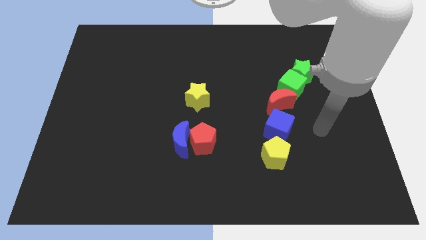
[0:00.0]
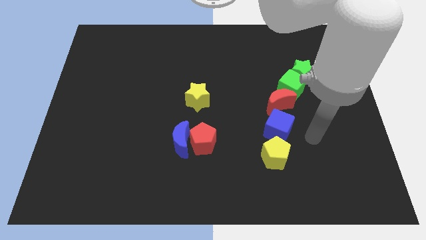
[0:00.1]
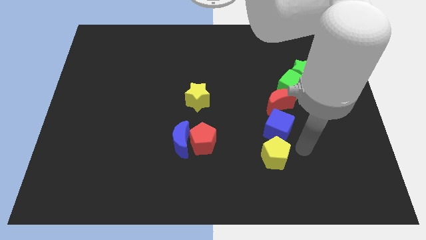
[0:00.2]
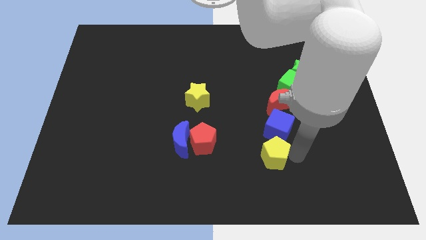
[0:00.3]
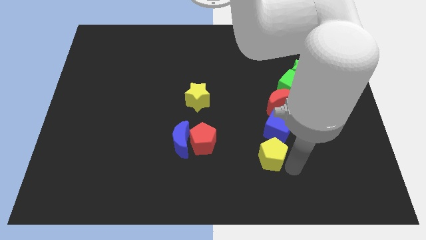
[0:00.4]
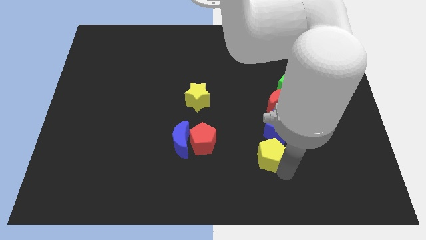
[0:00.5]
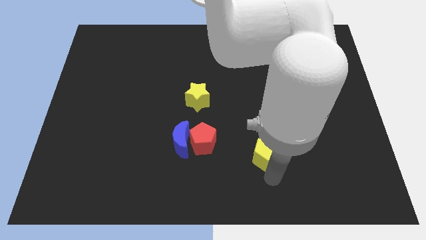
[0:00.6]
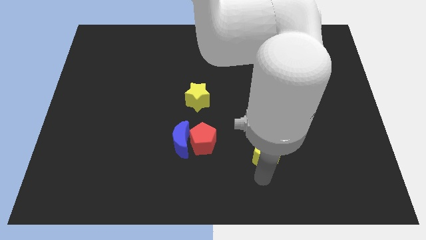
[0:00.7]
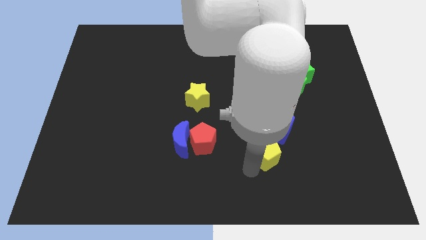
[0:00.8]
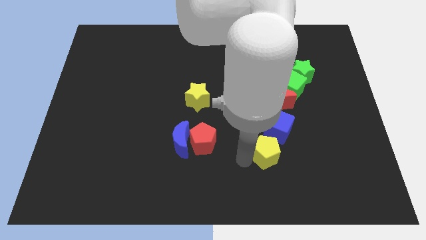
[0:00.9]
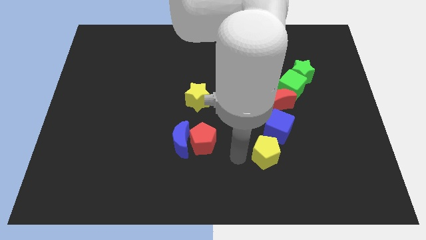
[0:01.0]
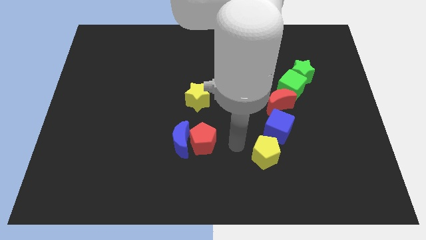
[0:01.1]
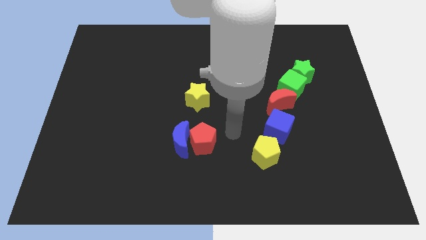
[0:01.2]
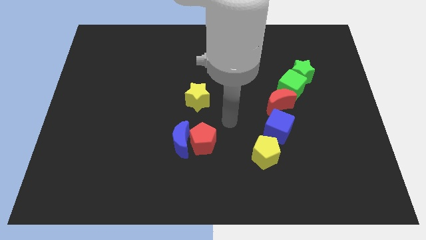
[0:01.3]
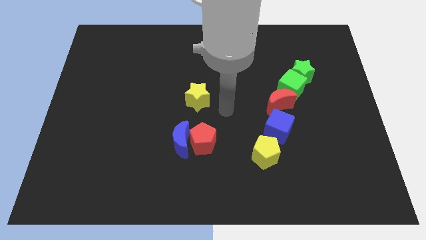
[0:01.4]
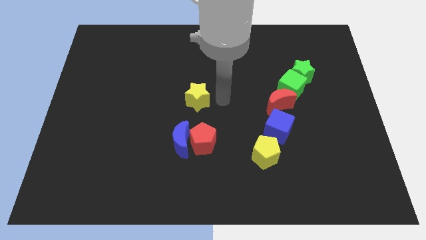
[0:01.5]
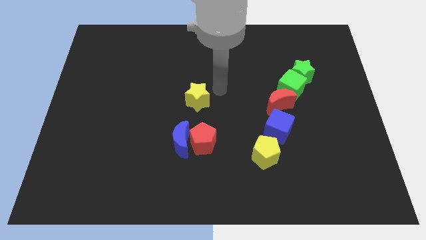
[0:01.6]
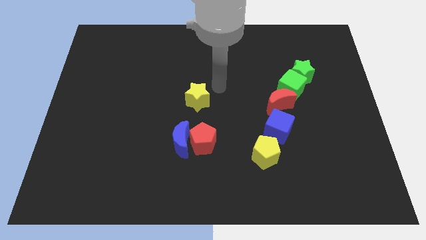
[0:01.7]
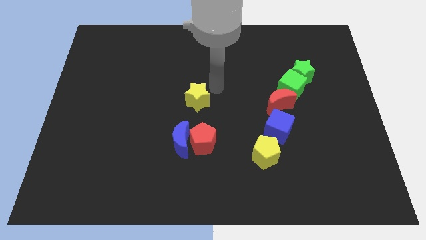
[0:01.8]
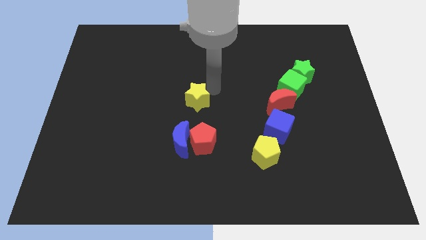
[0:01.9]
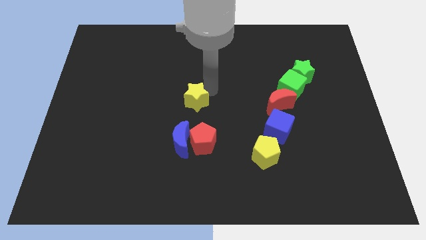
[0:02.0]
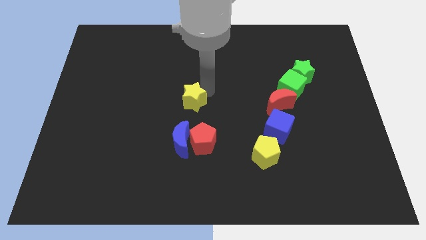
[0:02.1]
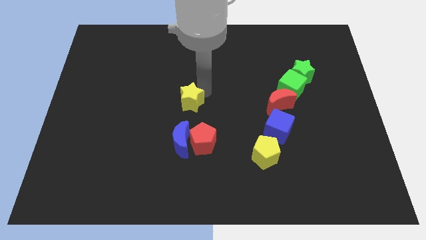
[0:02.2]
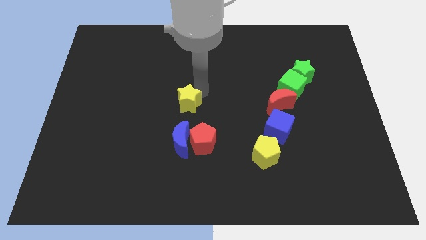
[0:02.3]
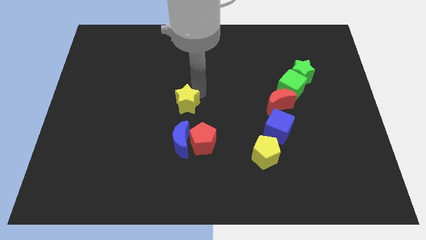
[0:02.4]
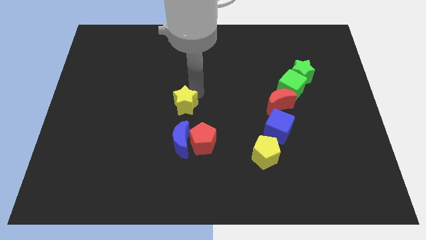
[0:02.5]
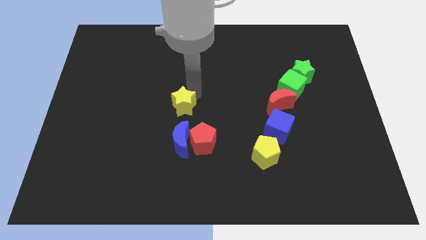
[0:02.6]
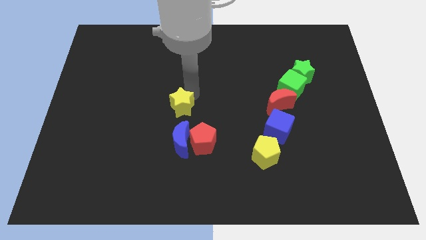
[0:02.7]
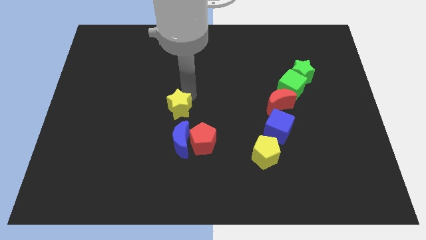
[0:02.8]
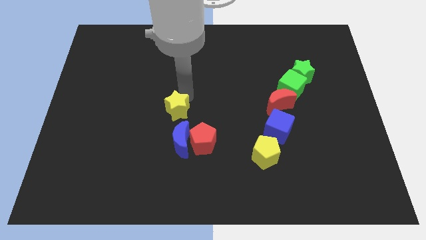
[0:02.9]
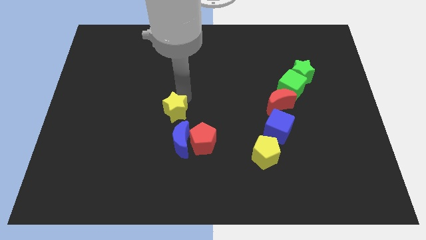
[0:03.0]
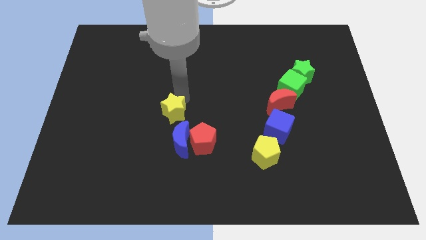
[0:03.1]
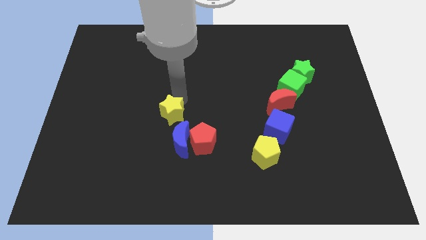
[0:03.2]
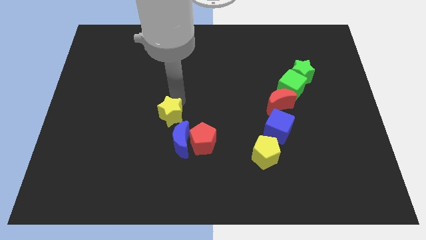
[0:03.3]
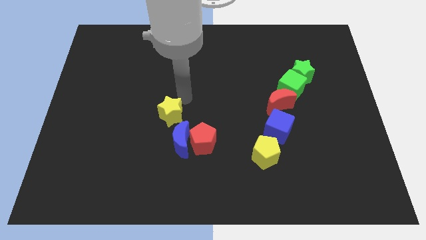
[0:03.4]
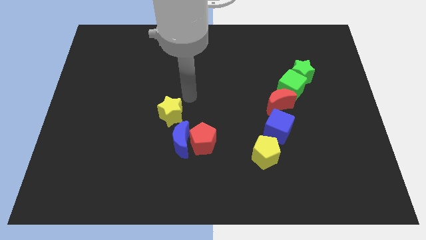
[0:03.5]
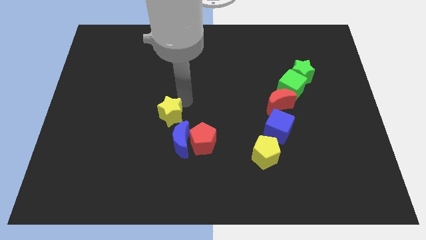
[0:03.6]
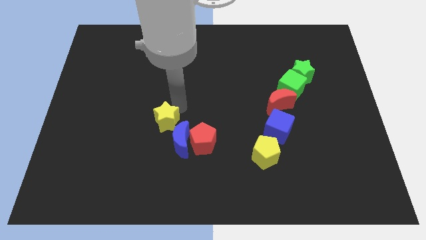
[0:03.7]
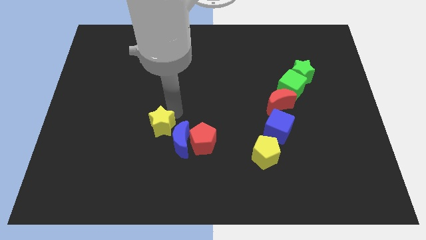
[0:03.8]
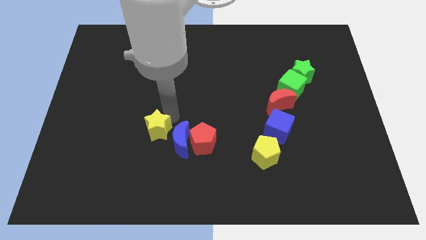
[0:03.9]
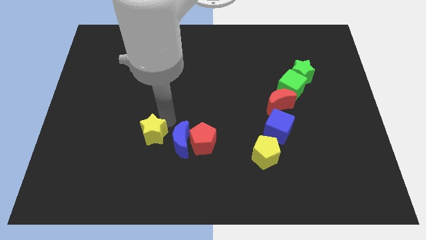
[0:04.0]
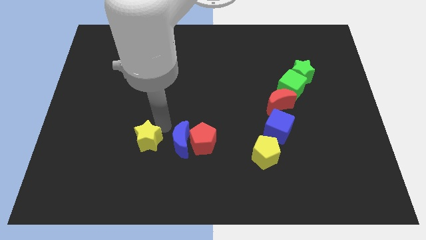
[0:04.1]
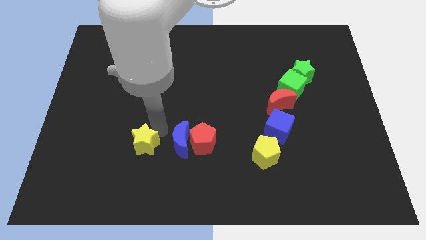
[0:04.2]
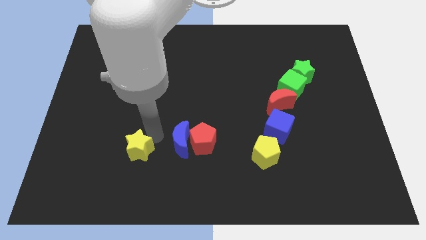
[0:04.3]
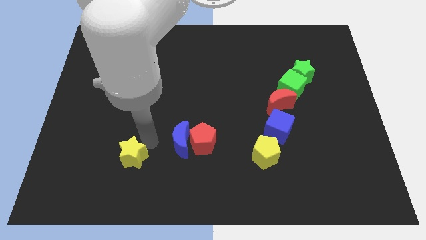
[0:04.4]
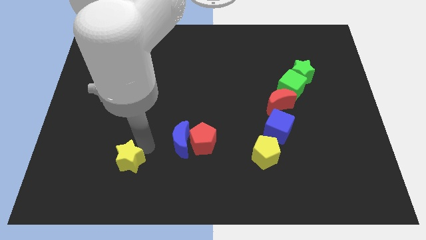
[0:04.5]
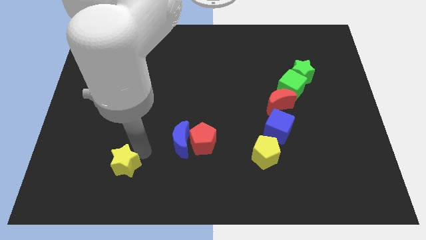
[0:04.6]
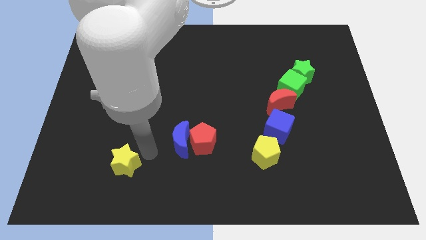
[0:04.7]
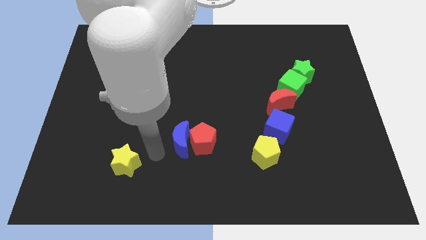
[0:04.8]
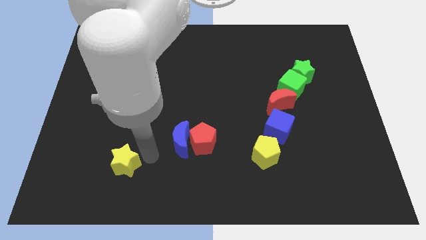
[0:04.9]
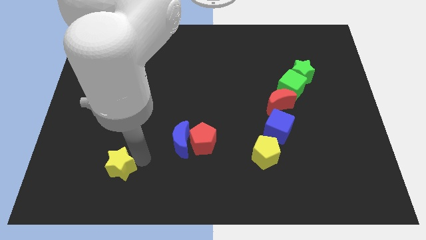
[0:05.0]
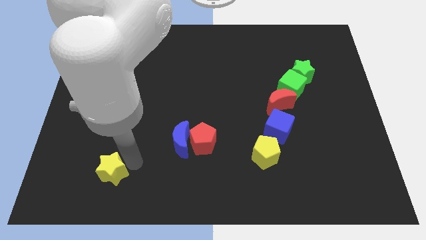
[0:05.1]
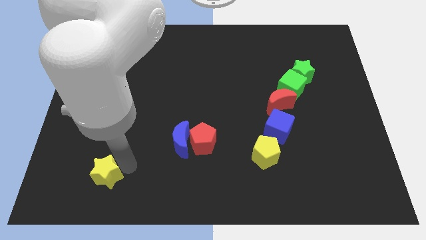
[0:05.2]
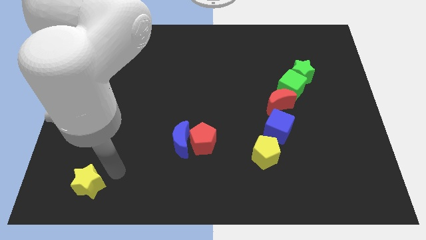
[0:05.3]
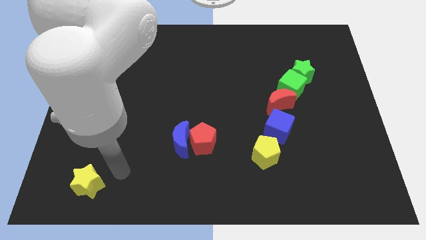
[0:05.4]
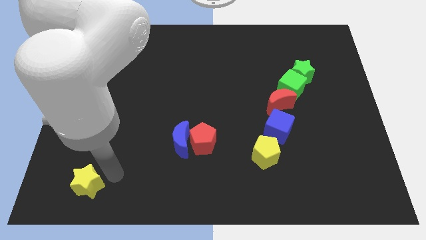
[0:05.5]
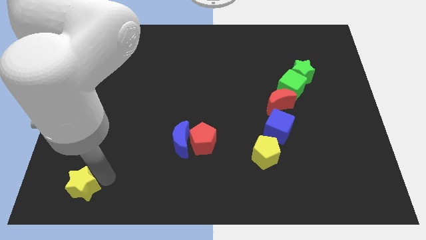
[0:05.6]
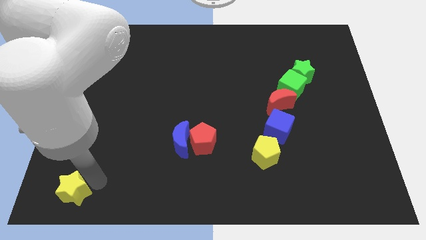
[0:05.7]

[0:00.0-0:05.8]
push the yellow star to the lower left corner
